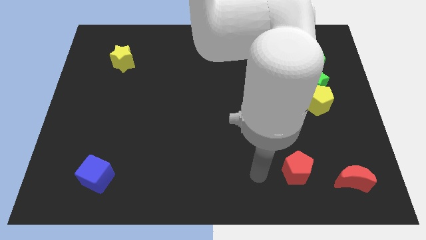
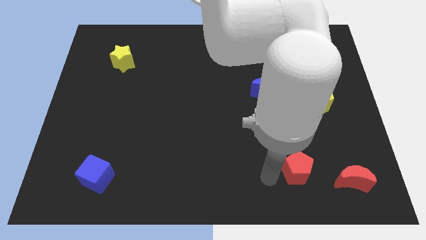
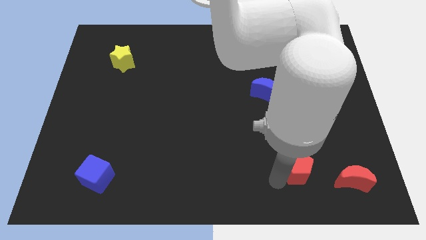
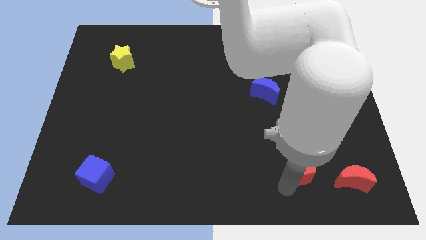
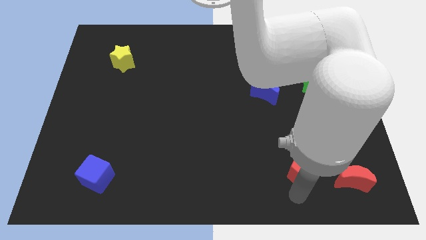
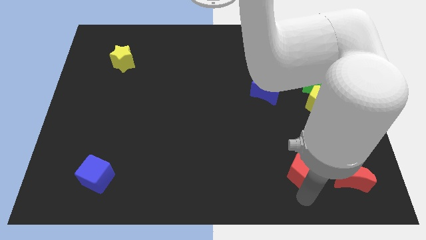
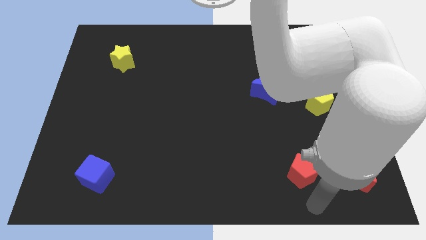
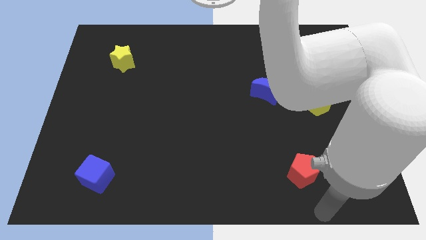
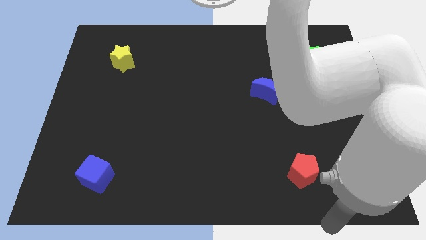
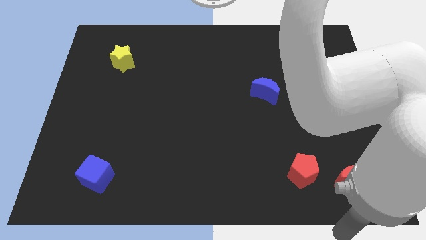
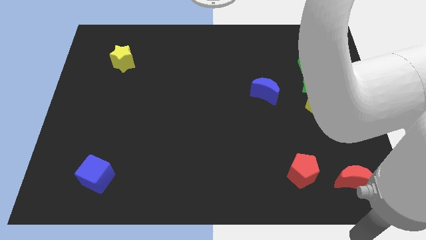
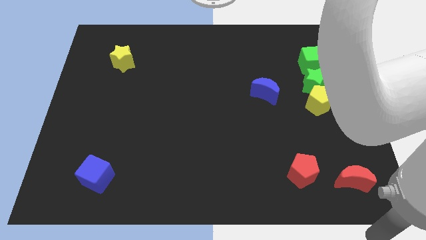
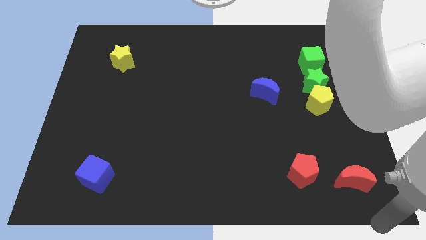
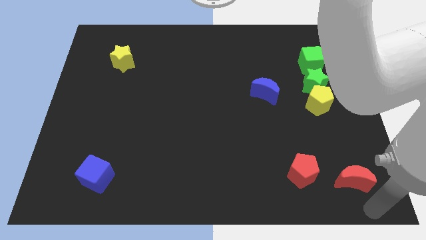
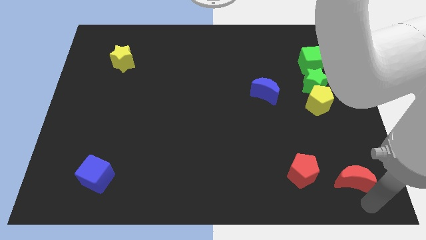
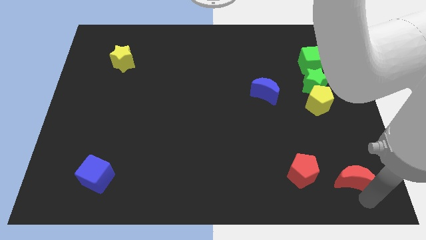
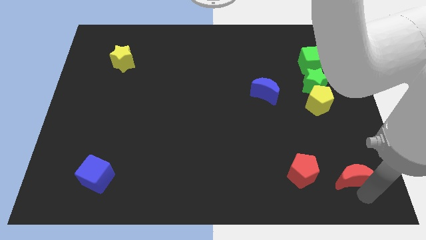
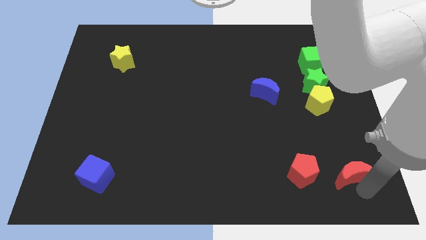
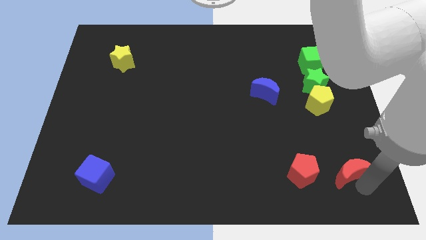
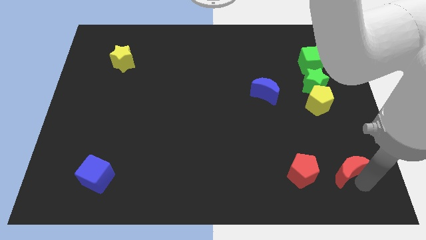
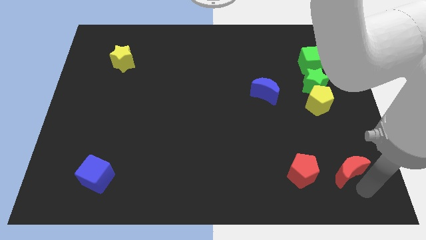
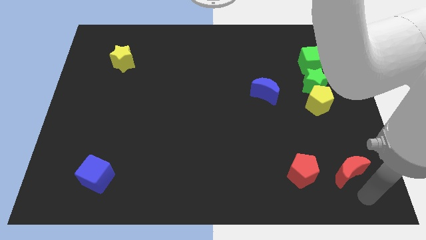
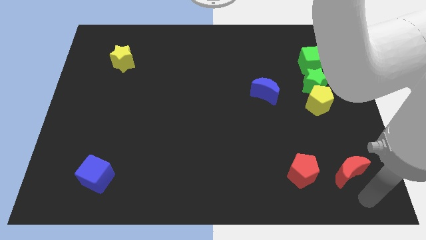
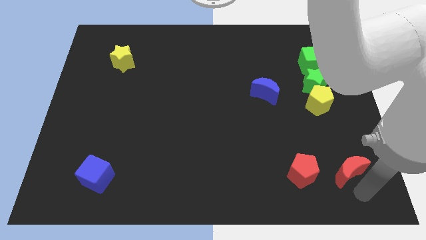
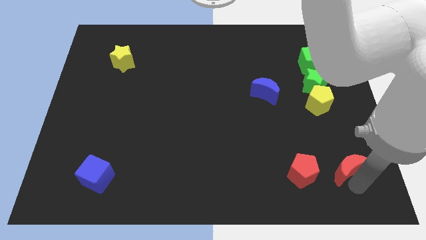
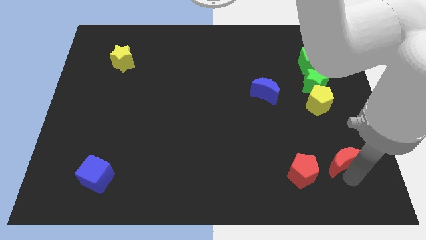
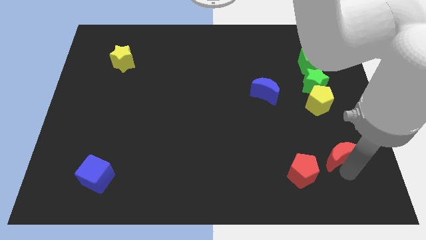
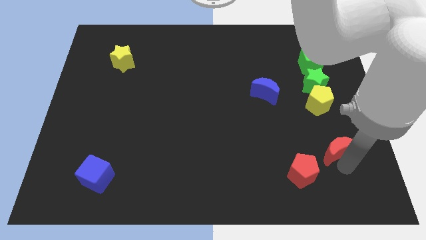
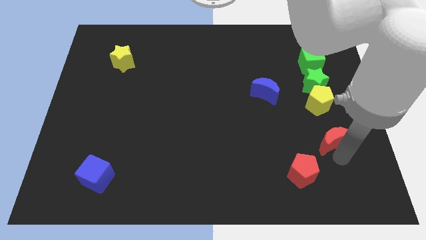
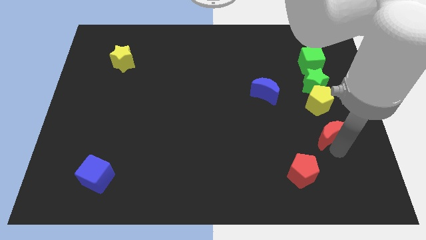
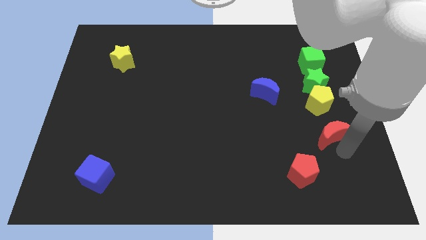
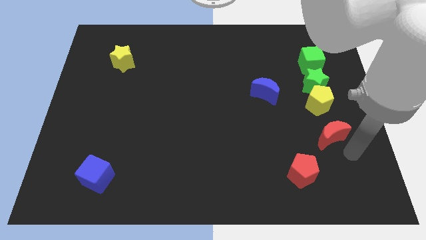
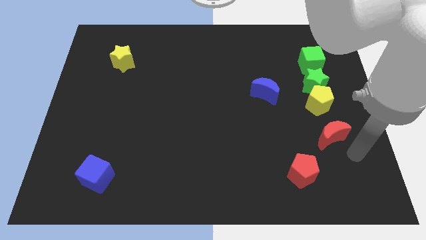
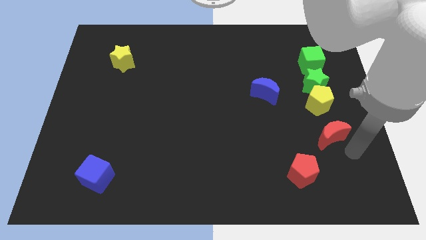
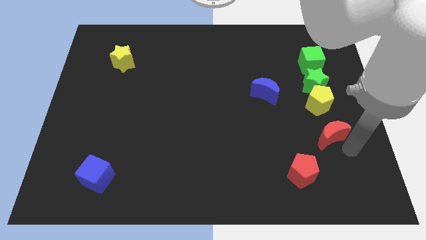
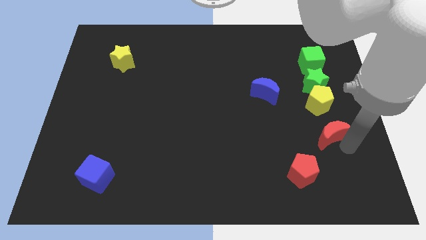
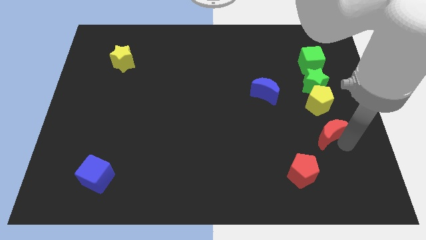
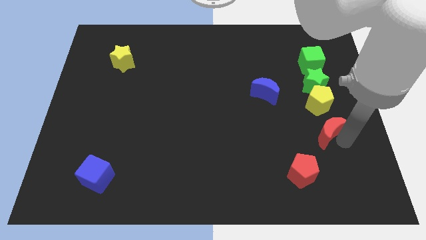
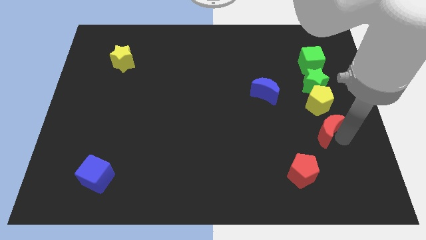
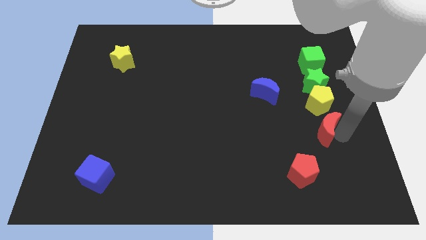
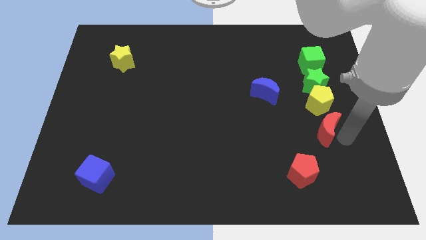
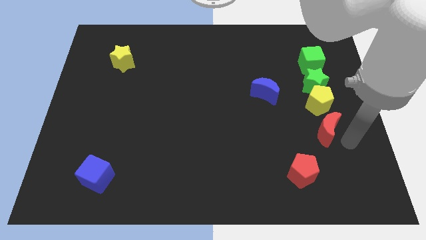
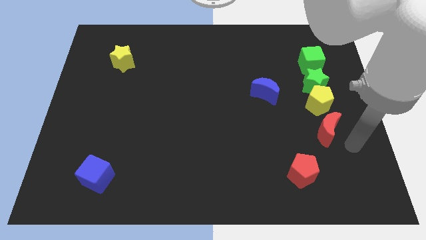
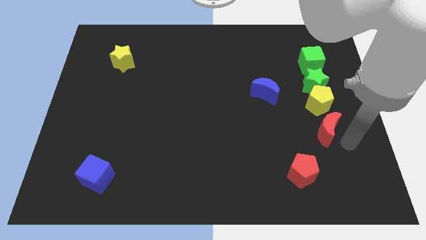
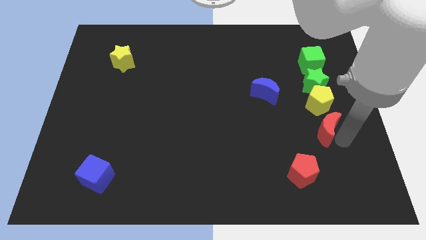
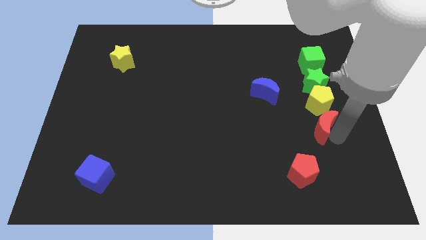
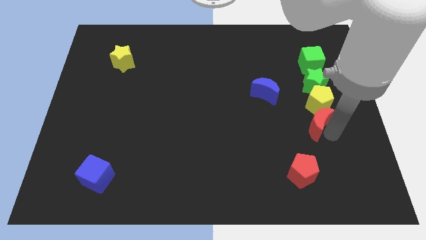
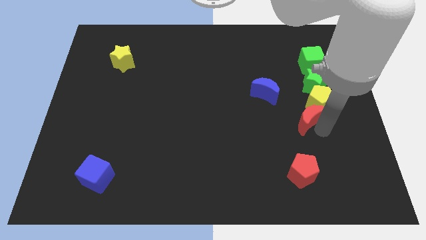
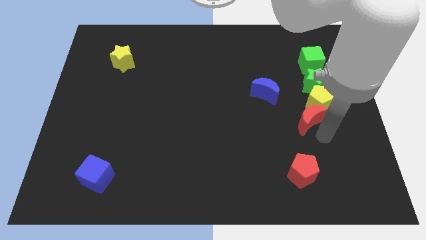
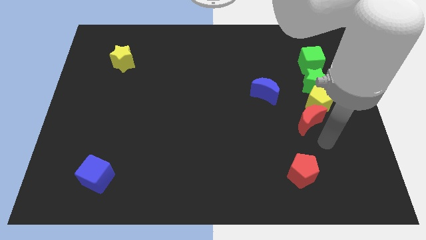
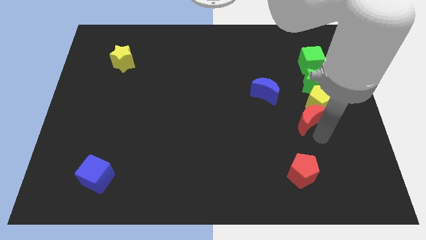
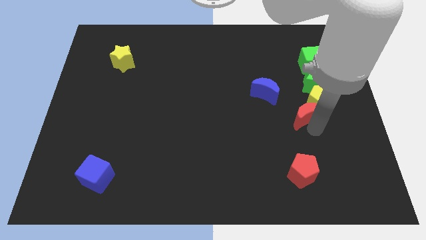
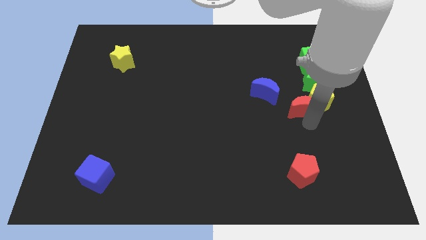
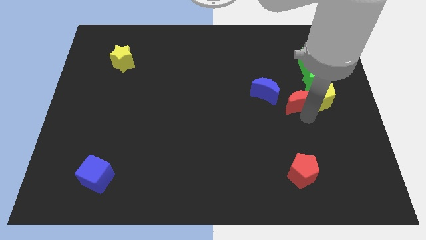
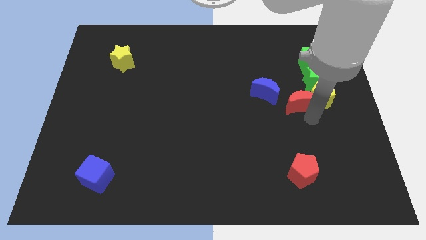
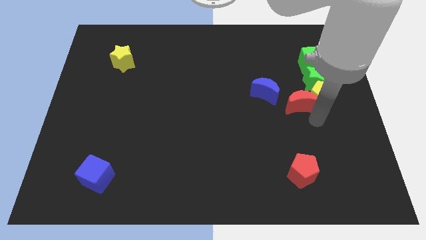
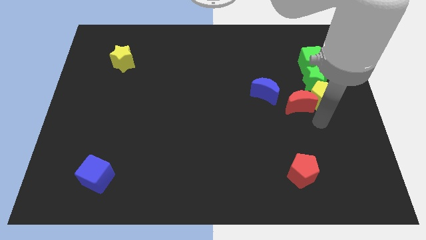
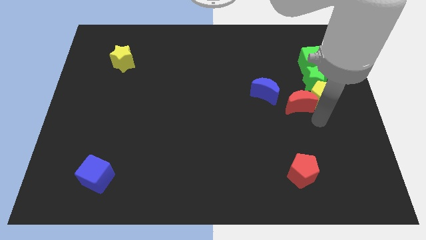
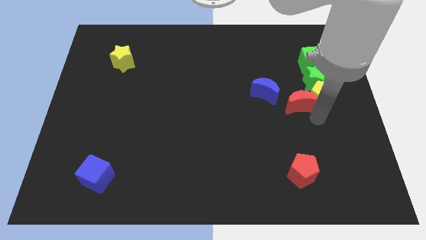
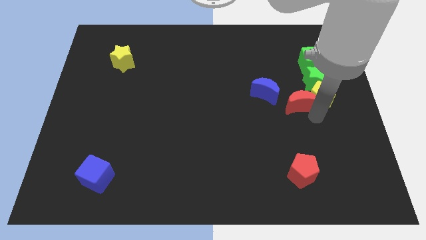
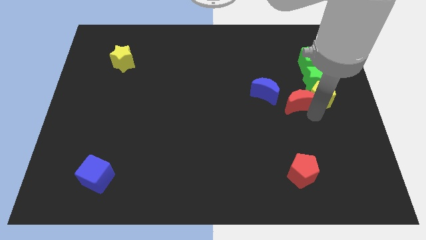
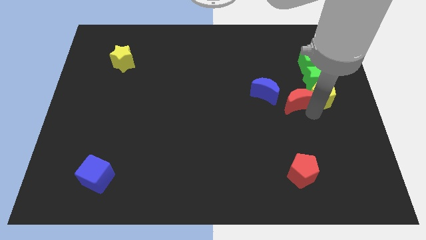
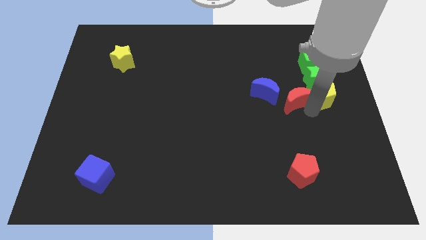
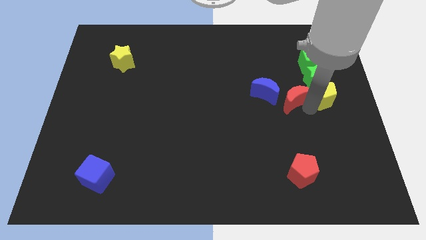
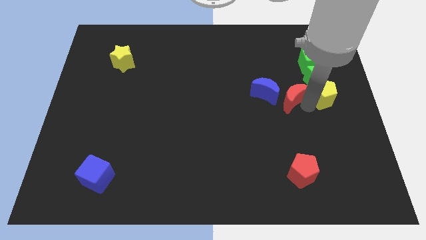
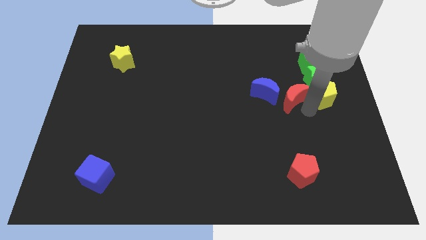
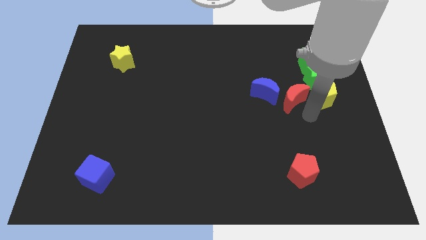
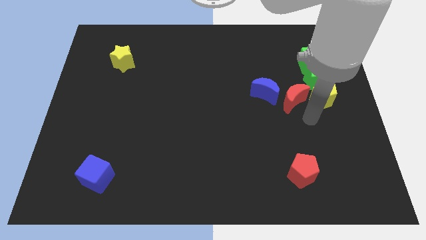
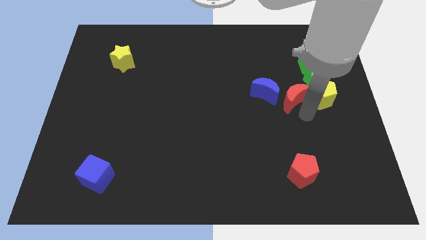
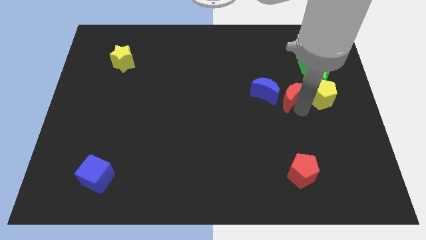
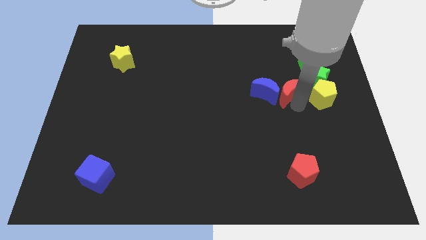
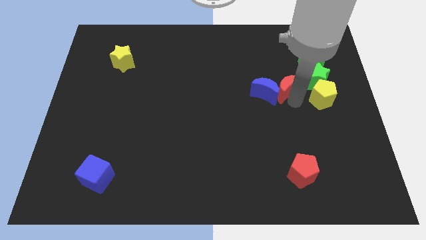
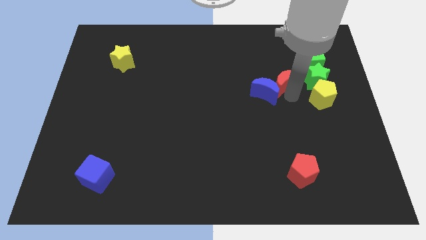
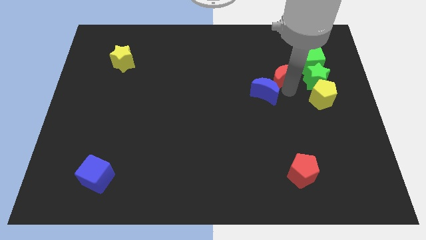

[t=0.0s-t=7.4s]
put the red moon to the top side of the blue moon

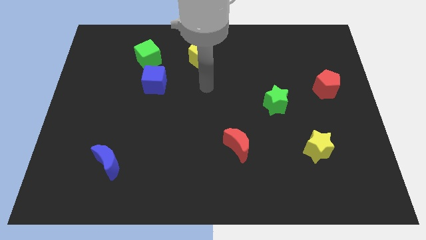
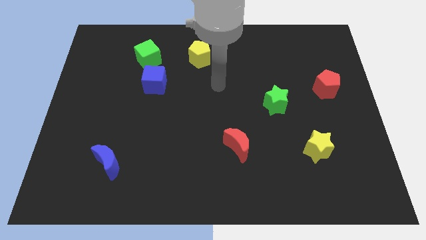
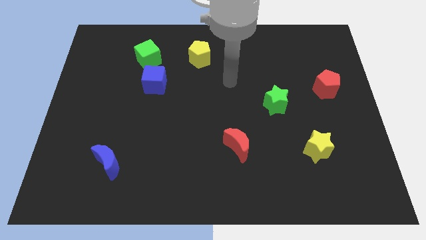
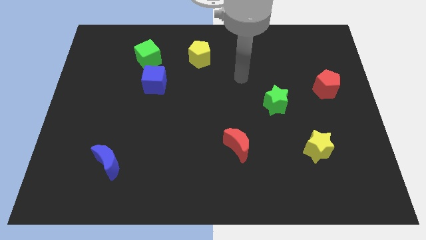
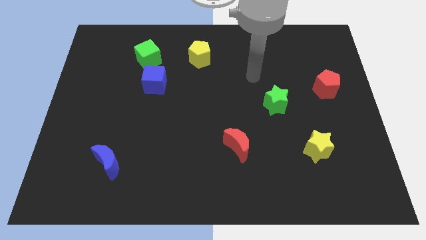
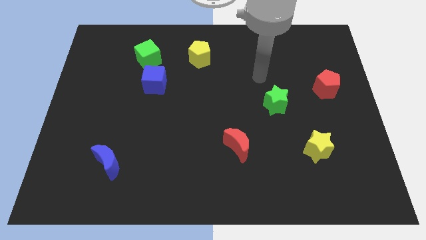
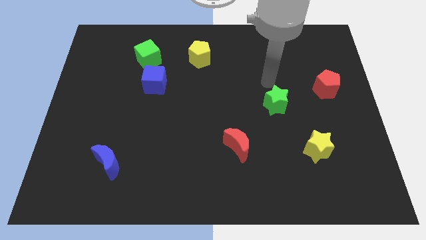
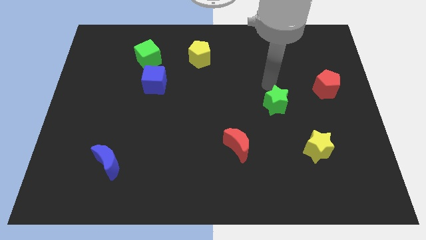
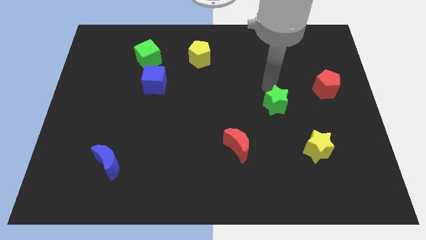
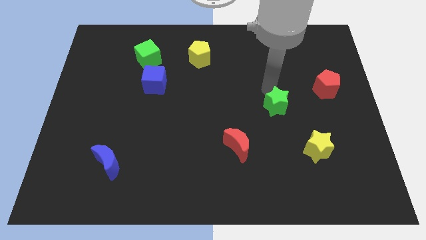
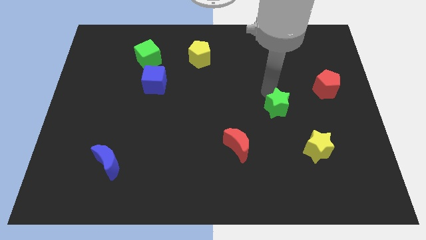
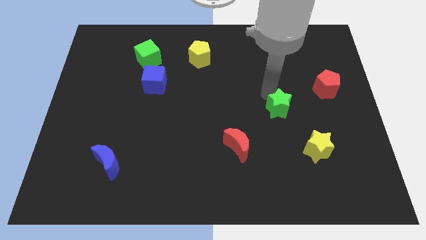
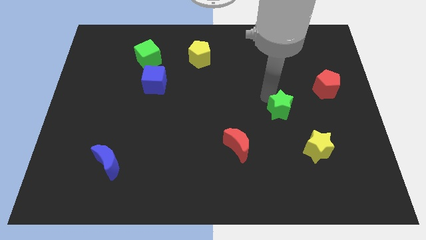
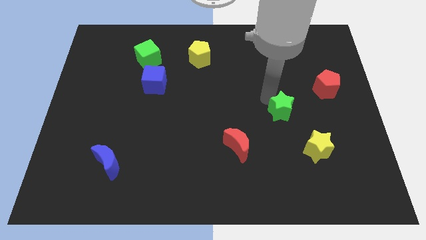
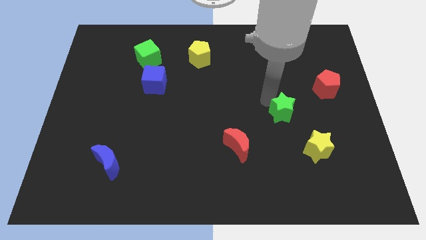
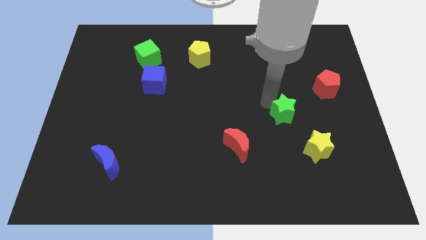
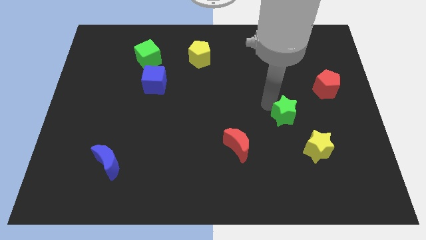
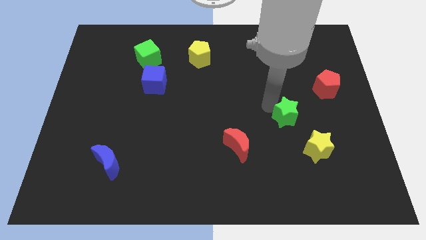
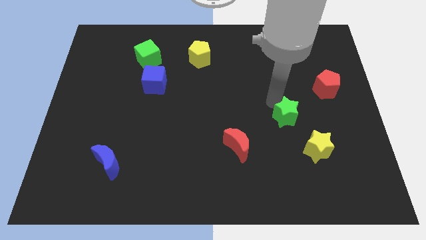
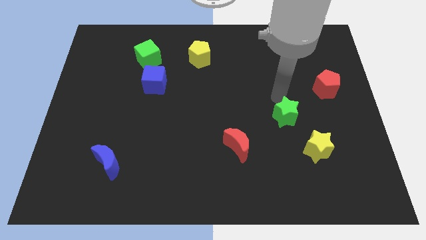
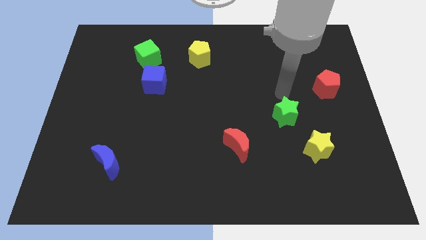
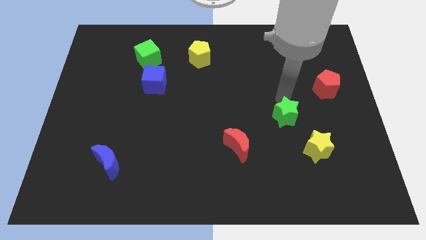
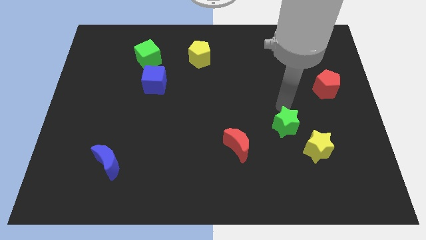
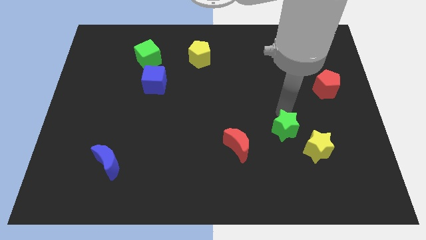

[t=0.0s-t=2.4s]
push the green star to the right of the red moon
